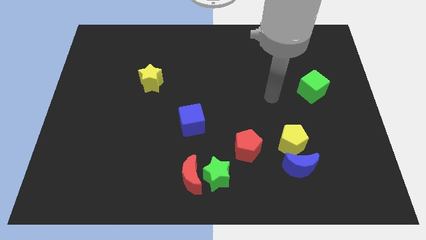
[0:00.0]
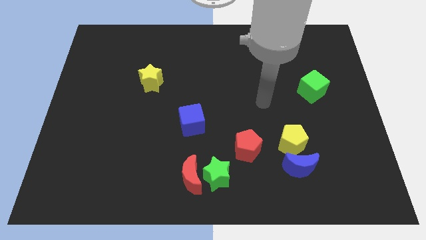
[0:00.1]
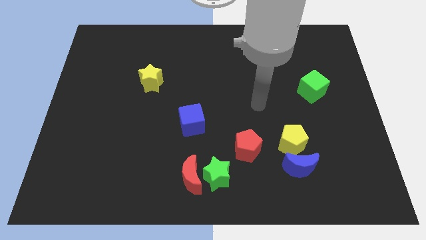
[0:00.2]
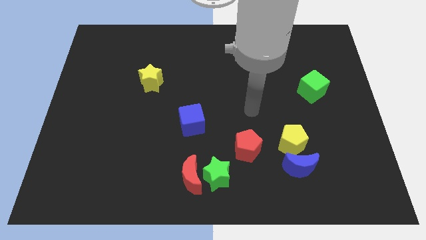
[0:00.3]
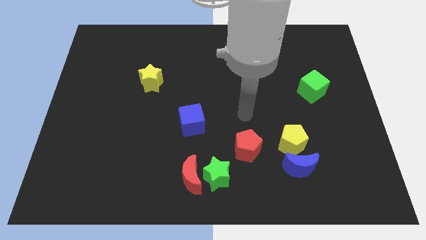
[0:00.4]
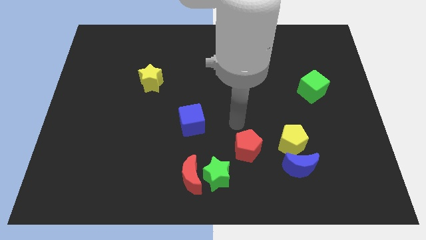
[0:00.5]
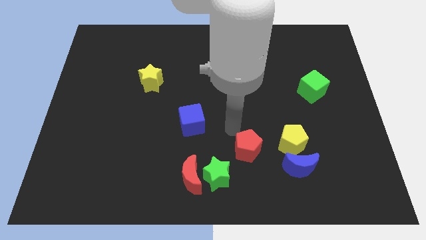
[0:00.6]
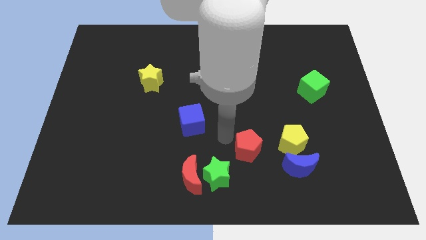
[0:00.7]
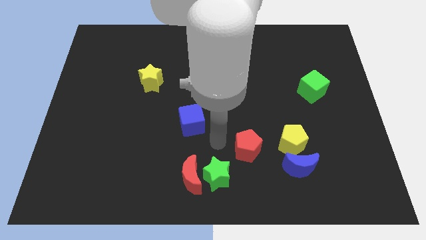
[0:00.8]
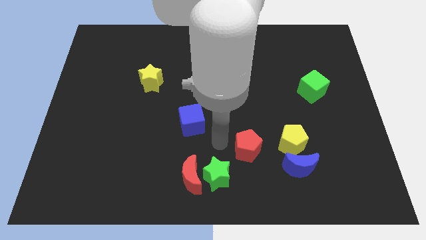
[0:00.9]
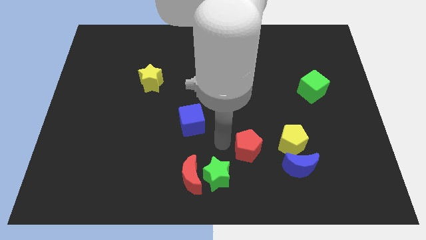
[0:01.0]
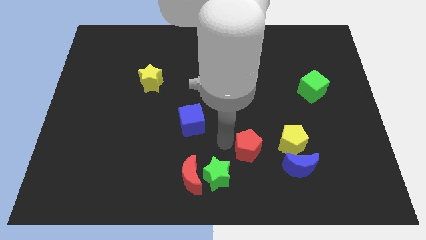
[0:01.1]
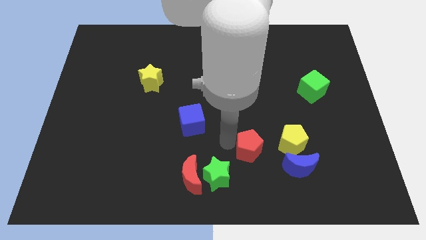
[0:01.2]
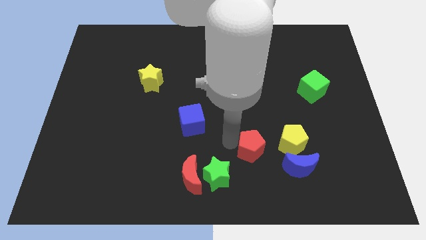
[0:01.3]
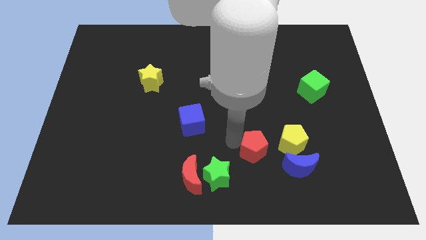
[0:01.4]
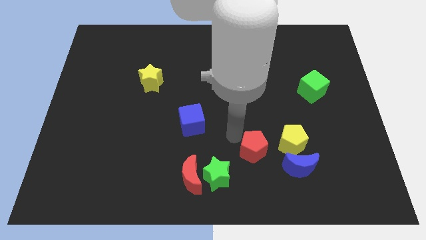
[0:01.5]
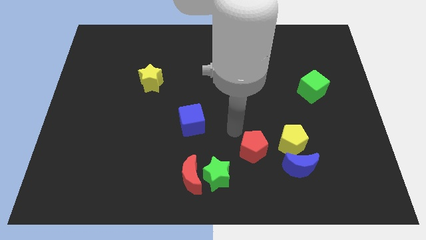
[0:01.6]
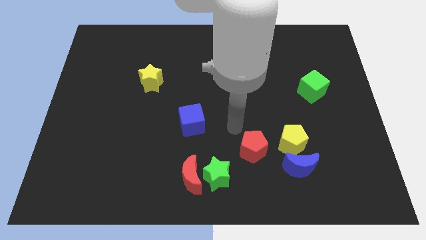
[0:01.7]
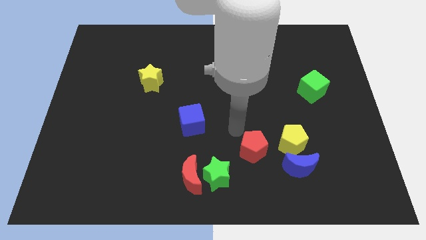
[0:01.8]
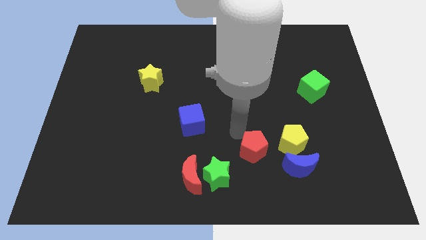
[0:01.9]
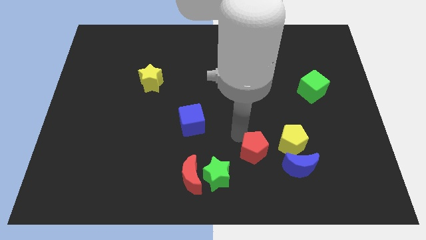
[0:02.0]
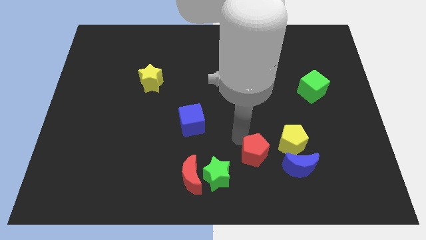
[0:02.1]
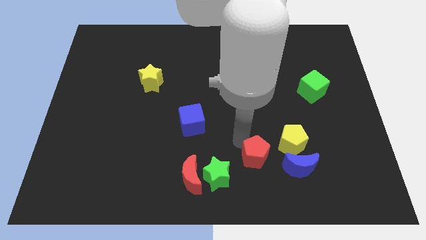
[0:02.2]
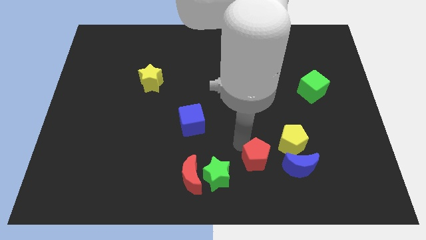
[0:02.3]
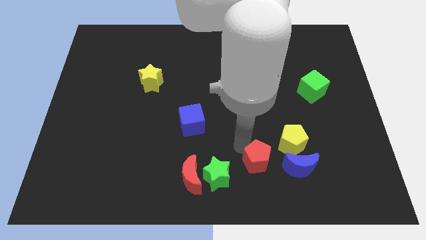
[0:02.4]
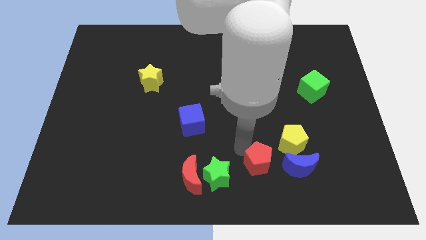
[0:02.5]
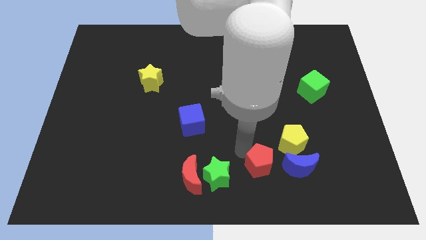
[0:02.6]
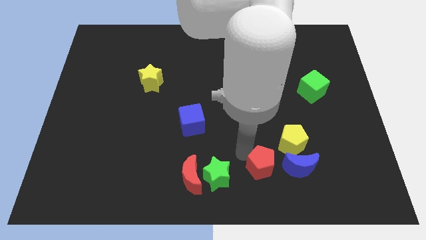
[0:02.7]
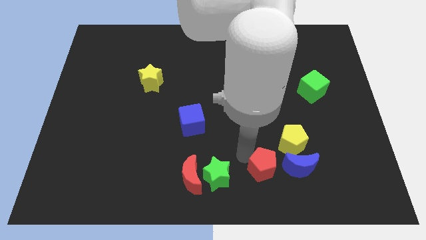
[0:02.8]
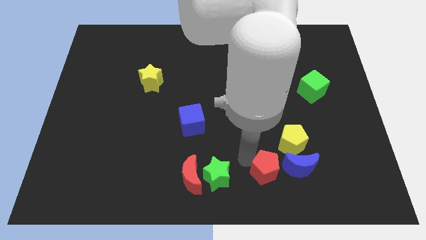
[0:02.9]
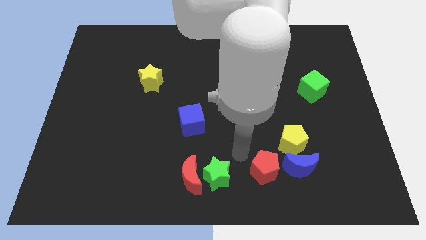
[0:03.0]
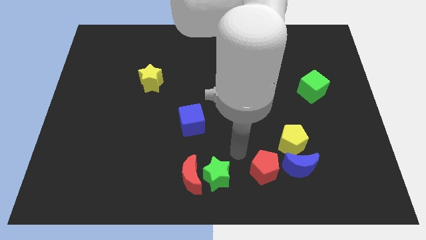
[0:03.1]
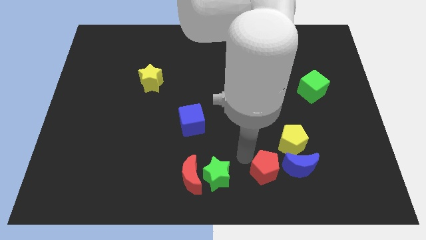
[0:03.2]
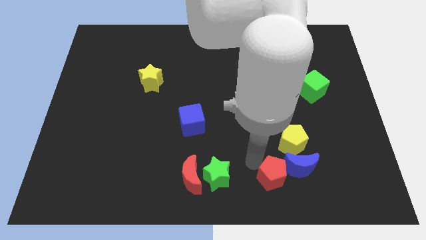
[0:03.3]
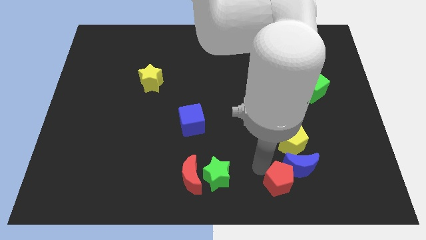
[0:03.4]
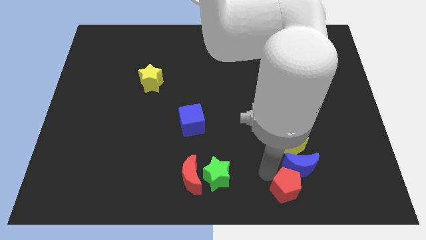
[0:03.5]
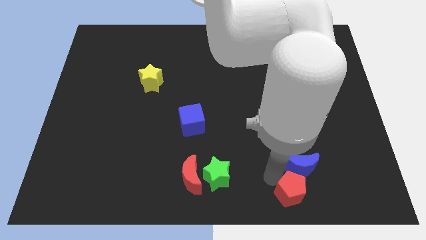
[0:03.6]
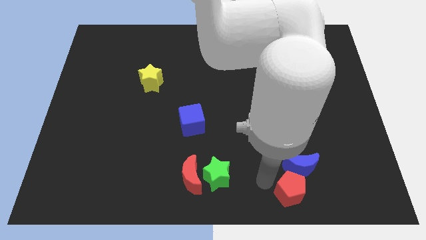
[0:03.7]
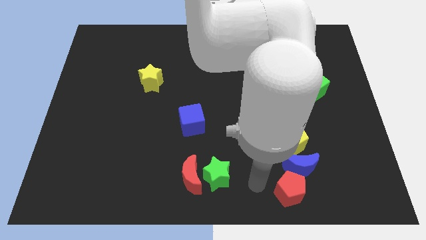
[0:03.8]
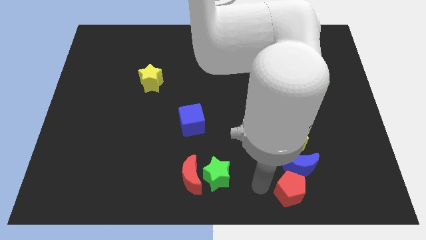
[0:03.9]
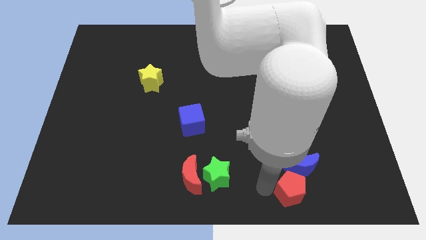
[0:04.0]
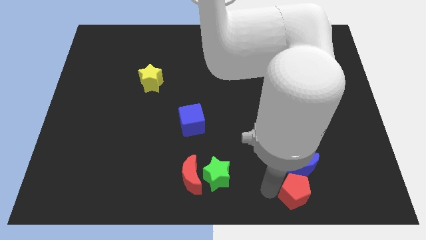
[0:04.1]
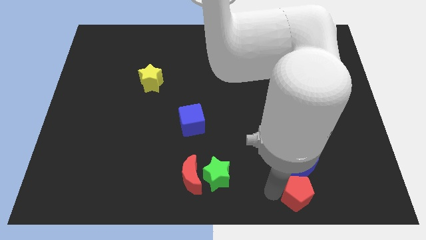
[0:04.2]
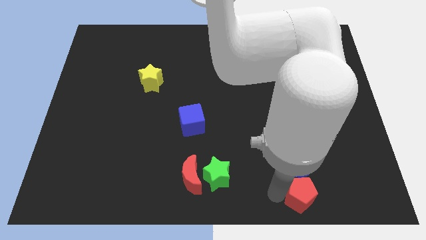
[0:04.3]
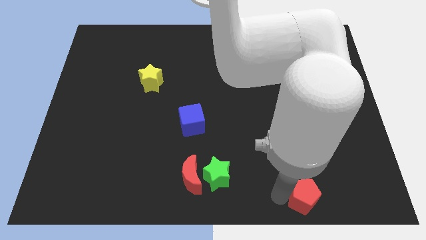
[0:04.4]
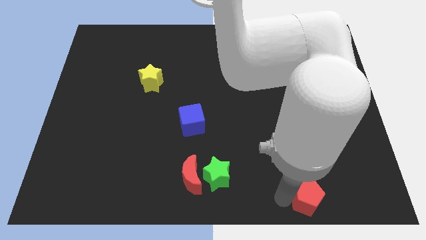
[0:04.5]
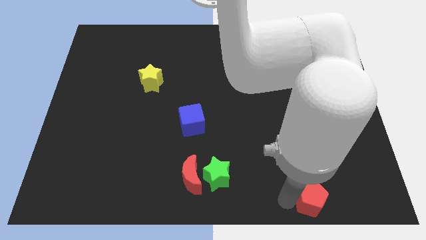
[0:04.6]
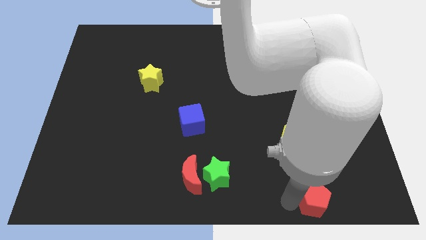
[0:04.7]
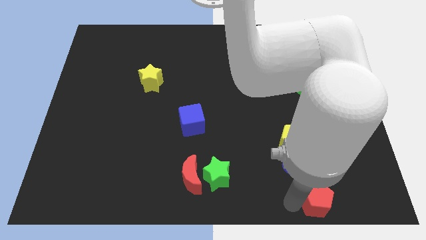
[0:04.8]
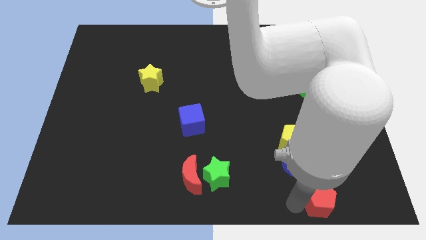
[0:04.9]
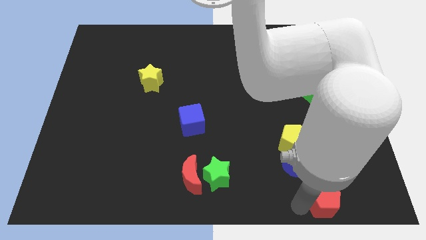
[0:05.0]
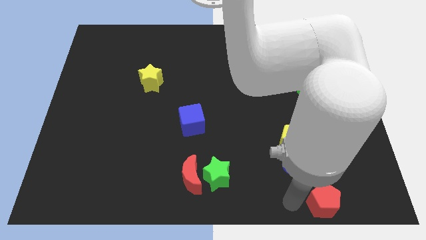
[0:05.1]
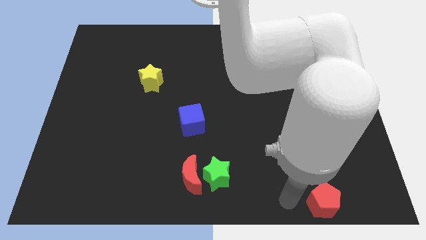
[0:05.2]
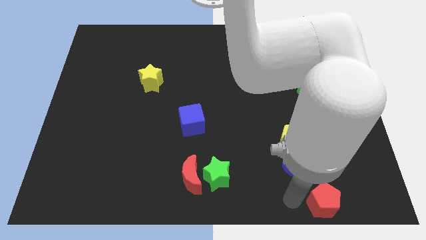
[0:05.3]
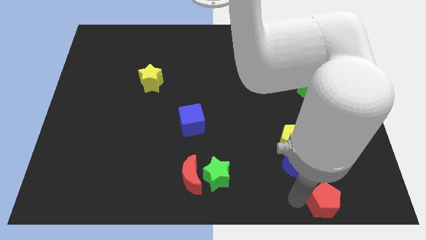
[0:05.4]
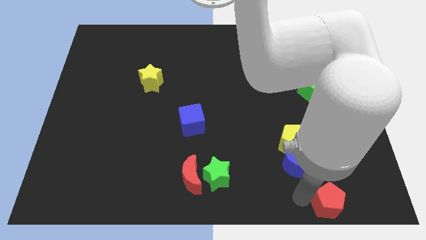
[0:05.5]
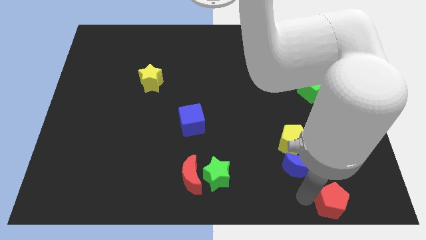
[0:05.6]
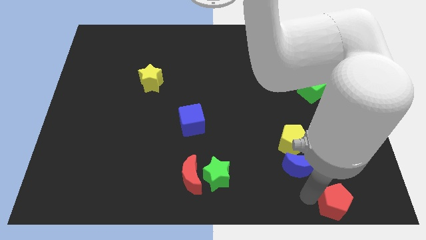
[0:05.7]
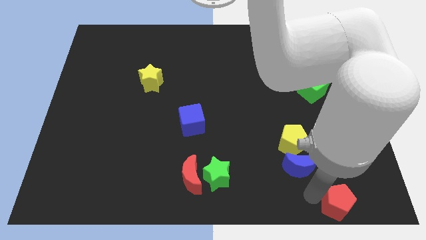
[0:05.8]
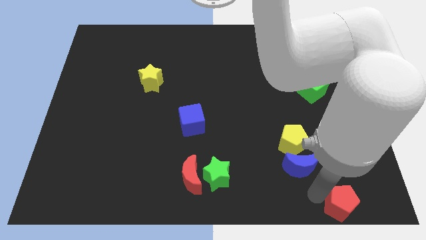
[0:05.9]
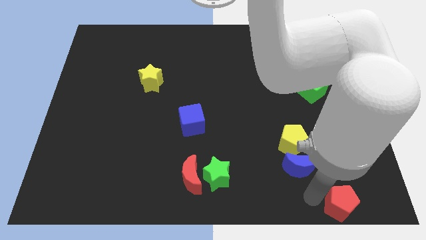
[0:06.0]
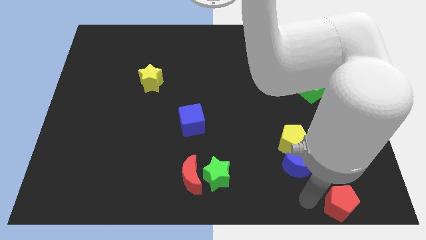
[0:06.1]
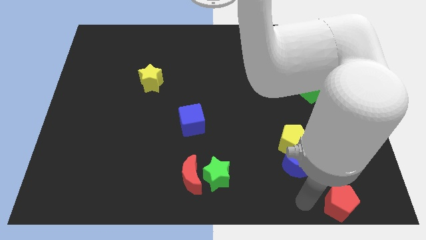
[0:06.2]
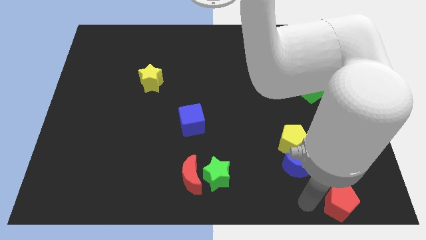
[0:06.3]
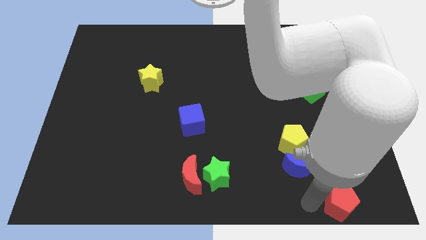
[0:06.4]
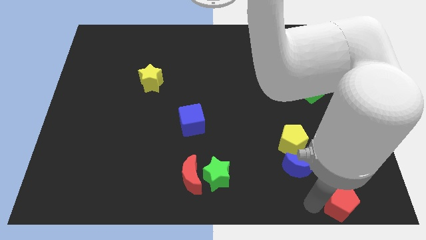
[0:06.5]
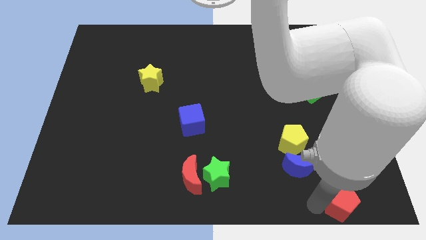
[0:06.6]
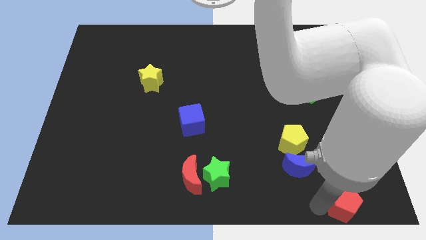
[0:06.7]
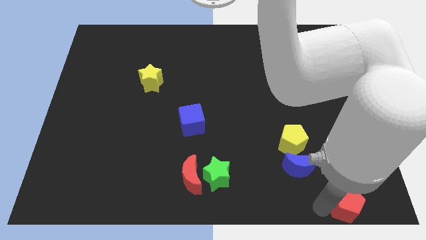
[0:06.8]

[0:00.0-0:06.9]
put the red pentagon to the bottom right

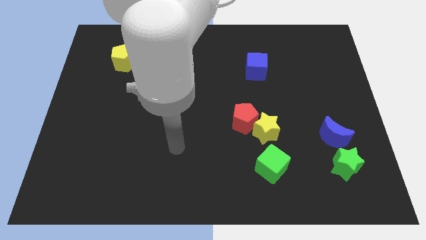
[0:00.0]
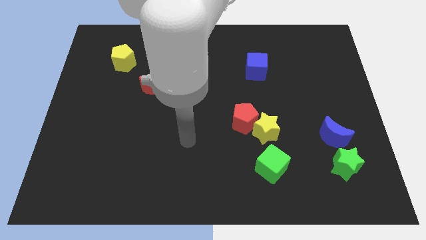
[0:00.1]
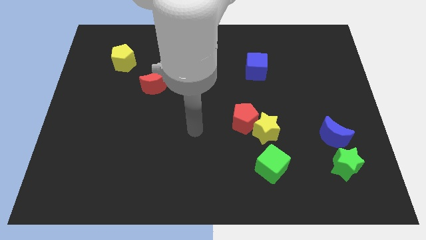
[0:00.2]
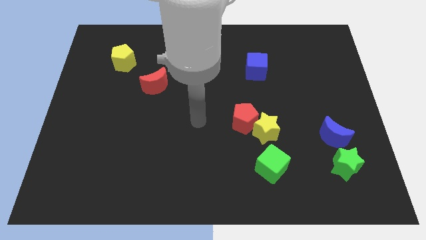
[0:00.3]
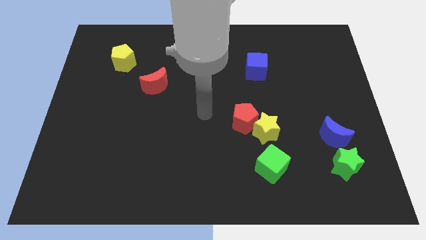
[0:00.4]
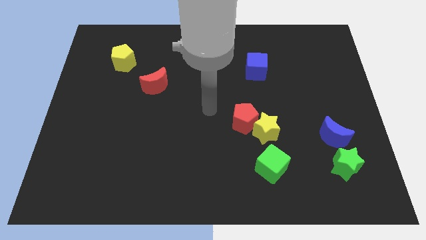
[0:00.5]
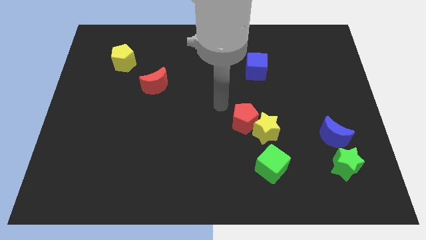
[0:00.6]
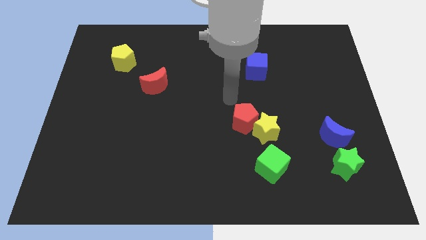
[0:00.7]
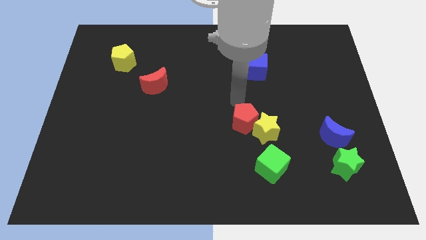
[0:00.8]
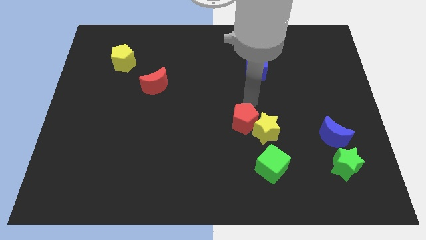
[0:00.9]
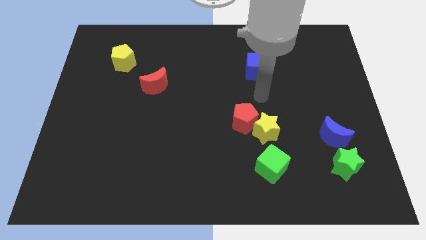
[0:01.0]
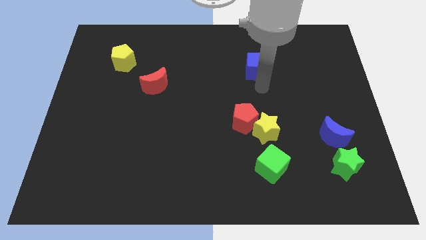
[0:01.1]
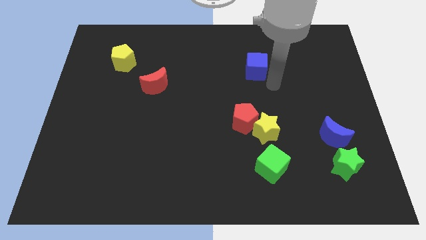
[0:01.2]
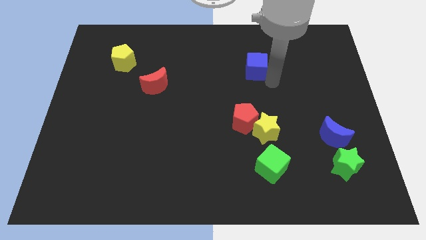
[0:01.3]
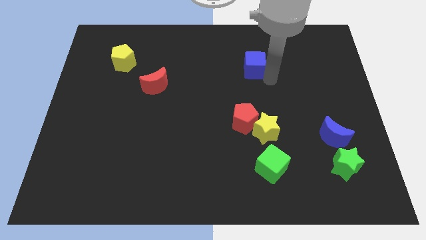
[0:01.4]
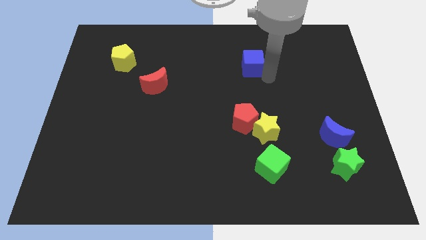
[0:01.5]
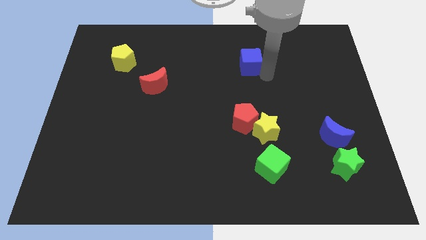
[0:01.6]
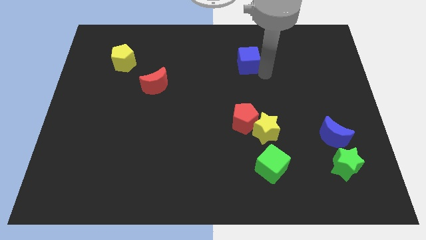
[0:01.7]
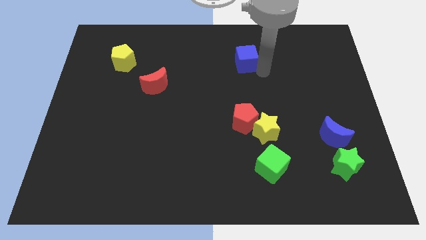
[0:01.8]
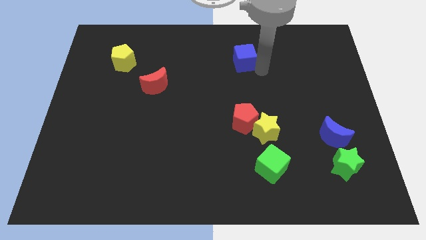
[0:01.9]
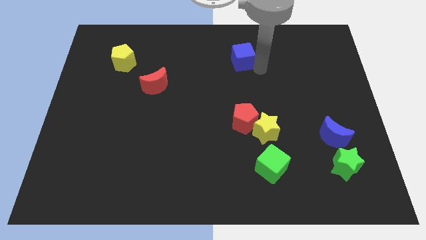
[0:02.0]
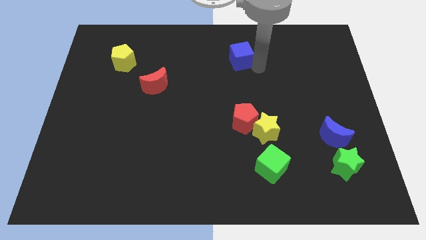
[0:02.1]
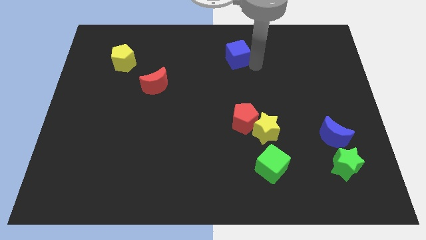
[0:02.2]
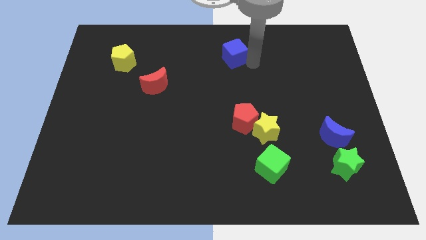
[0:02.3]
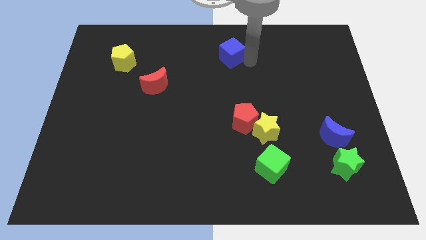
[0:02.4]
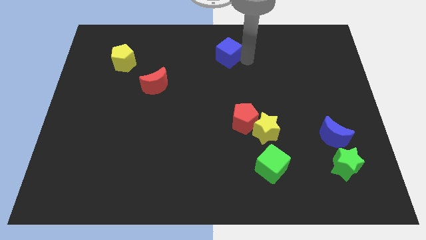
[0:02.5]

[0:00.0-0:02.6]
put the blue cube to the top
